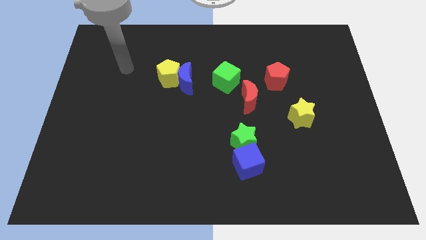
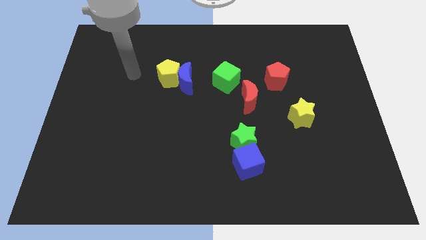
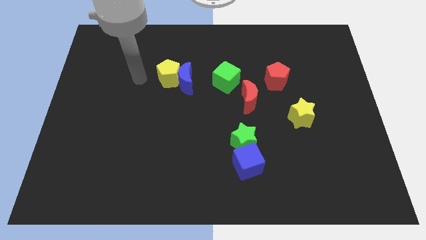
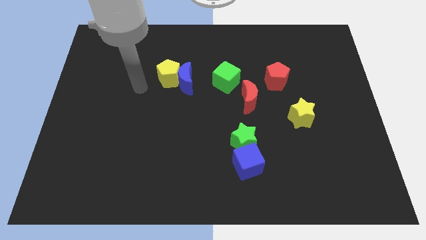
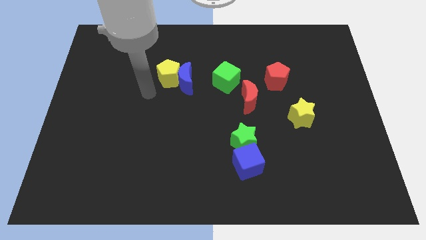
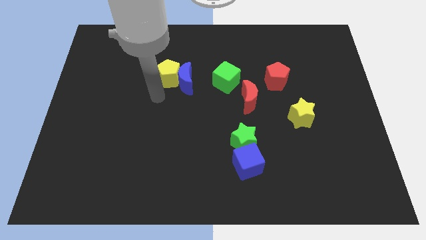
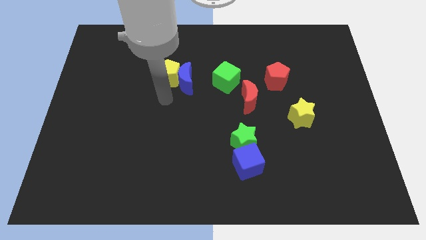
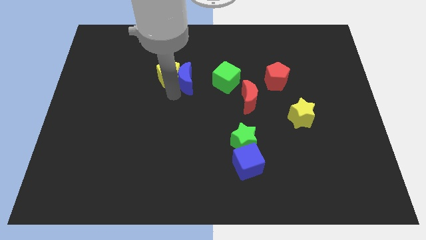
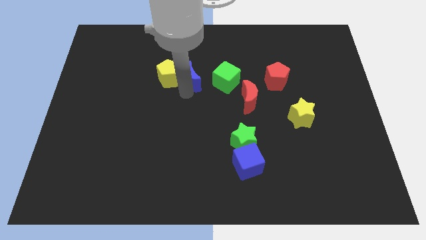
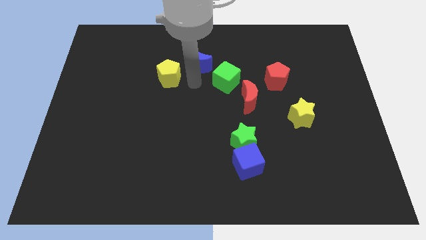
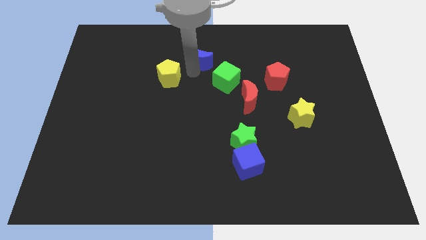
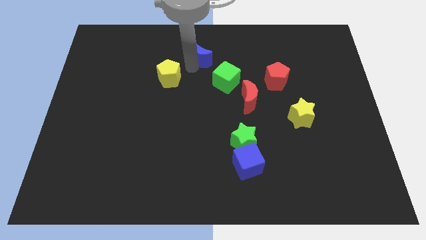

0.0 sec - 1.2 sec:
pull the yellow pentagon apart from the blue moon

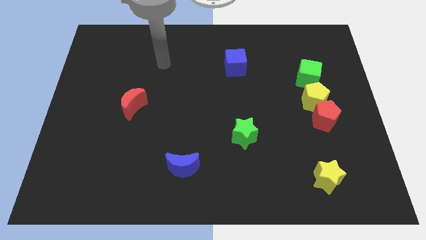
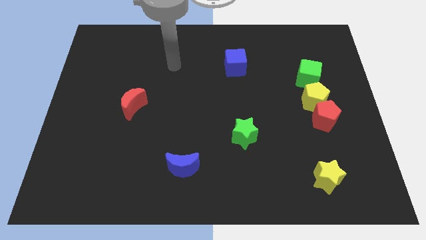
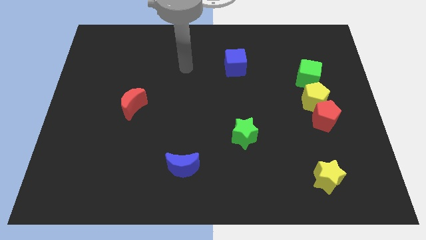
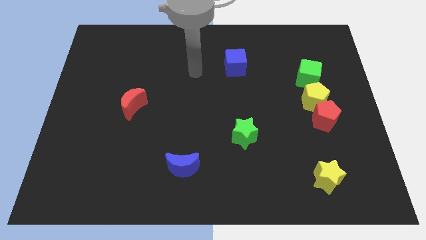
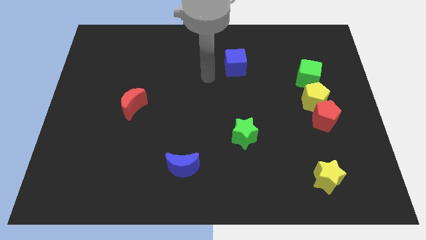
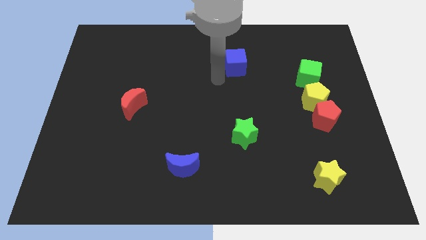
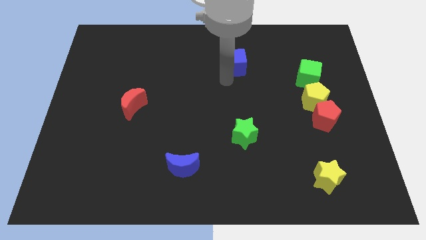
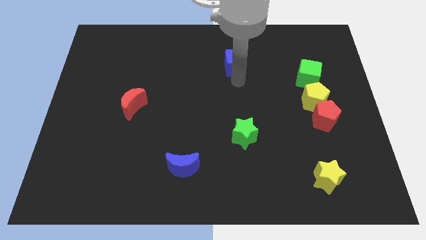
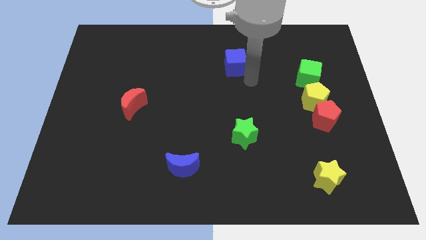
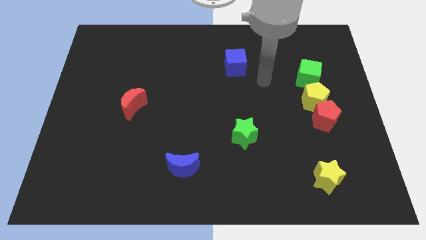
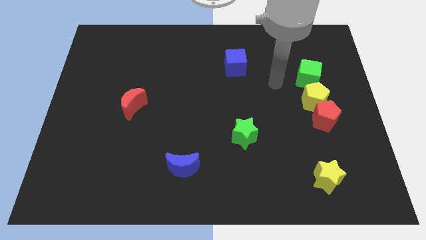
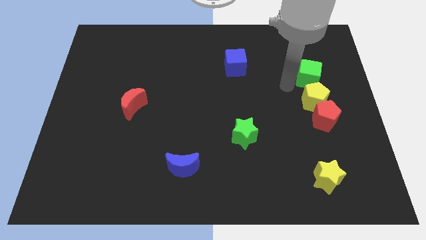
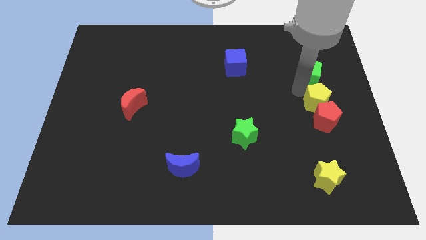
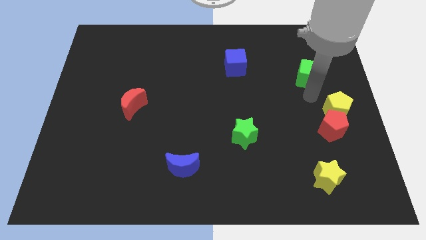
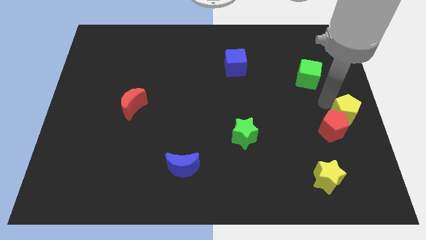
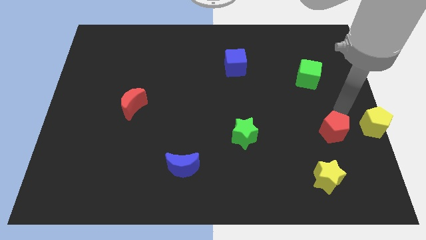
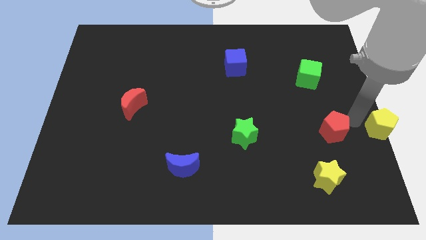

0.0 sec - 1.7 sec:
separate the red pentagon from the yellow pentagon

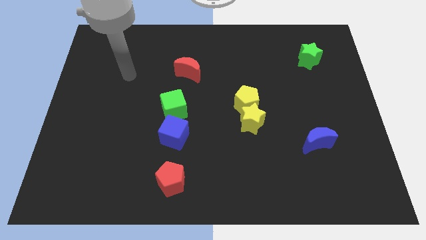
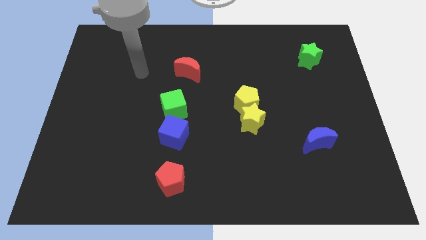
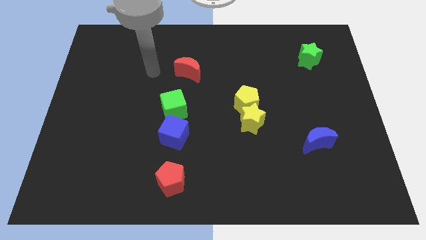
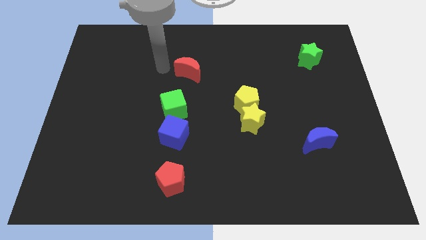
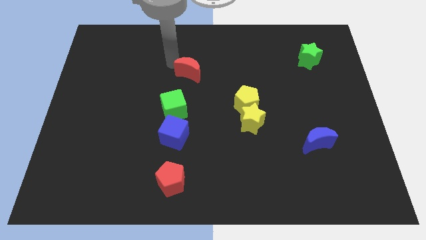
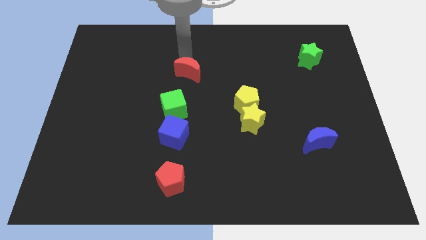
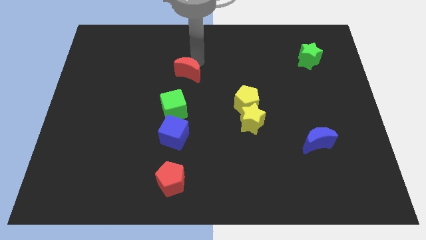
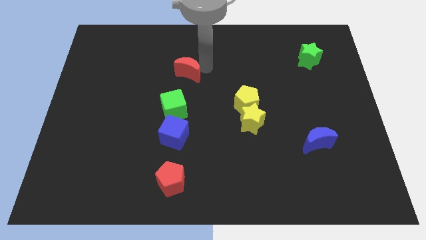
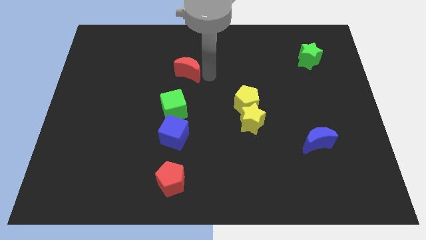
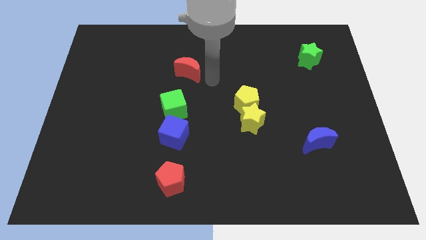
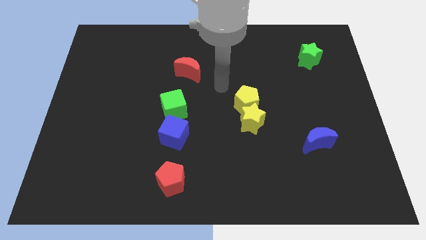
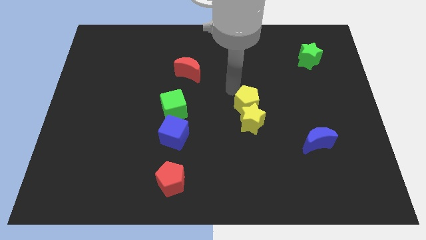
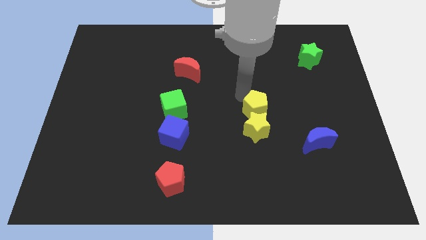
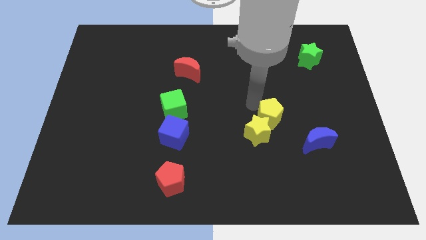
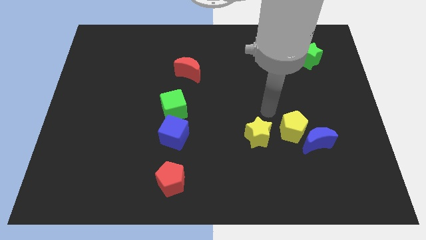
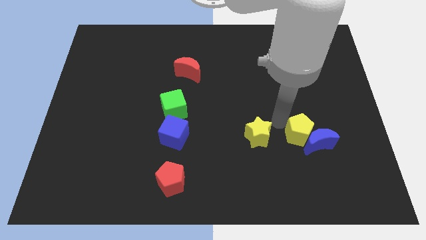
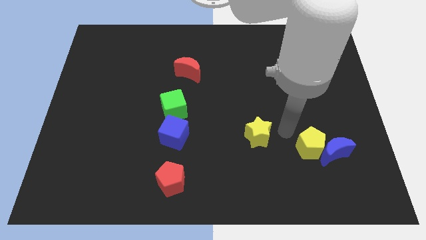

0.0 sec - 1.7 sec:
pull the yellow star apart from the yellow pentagon

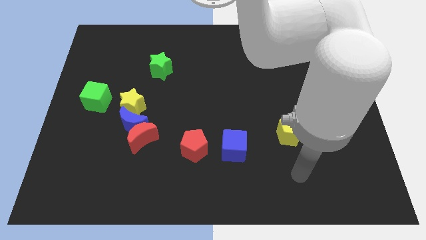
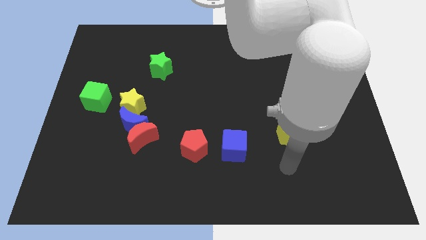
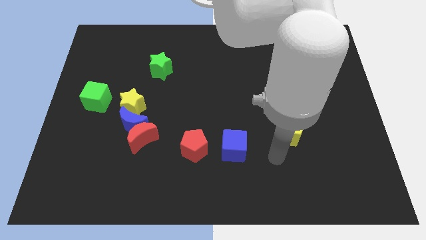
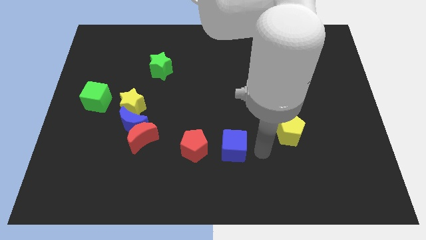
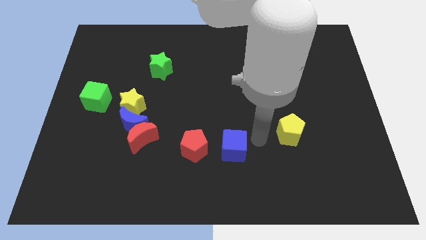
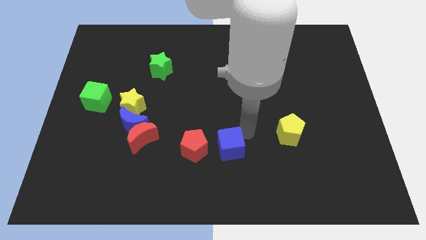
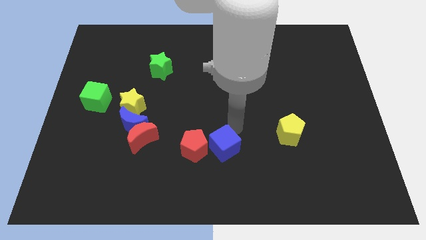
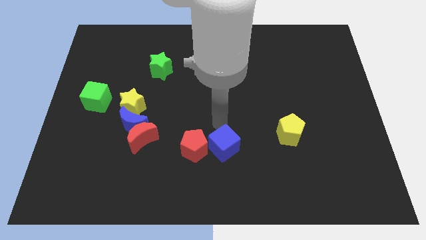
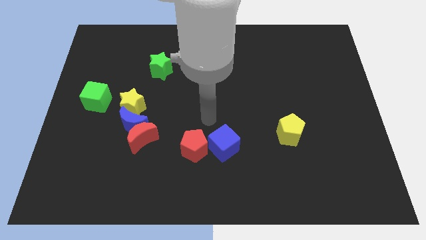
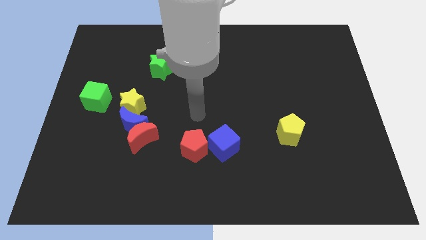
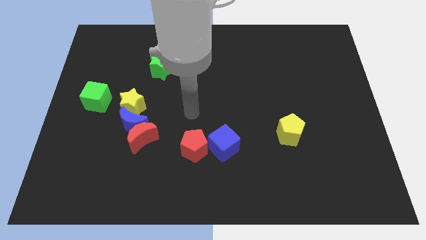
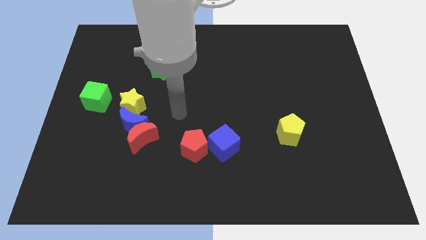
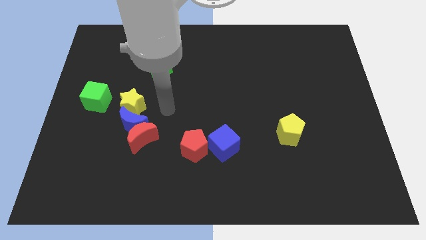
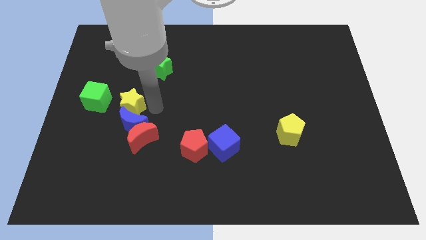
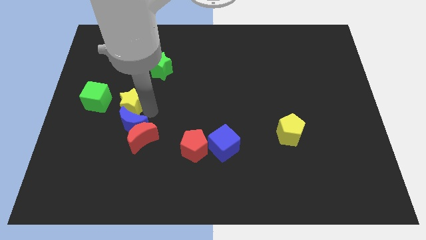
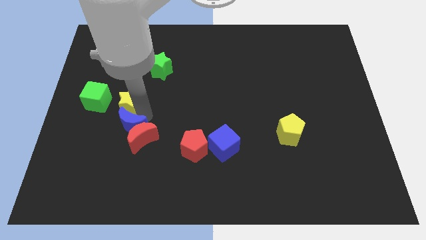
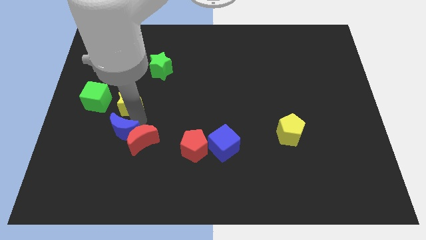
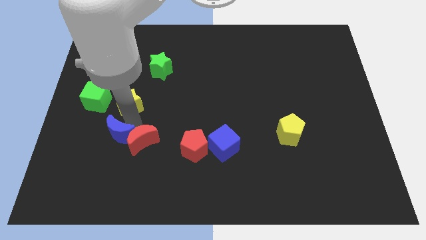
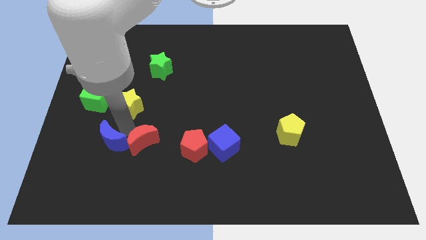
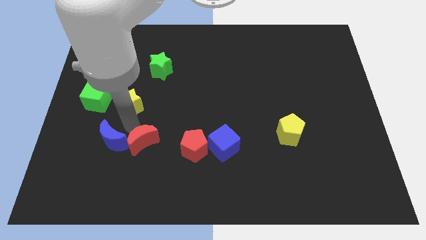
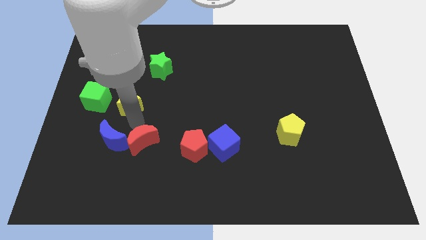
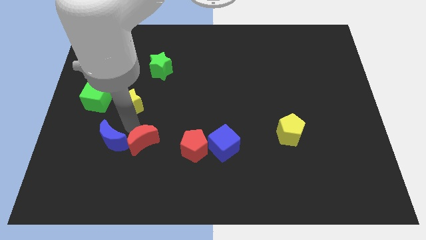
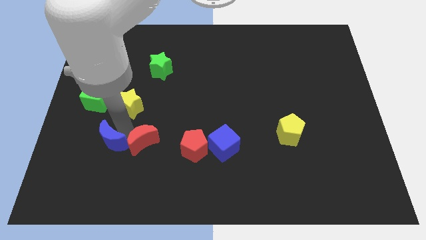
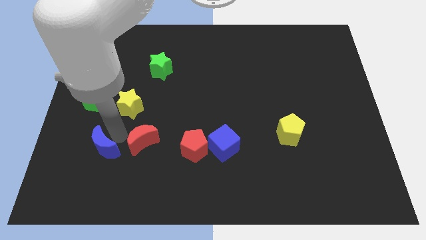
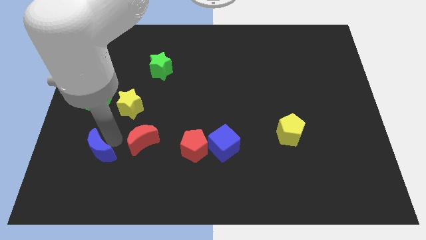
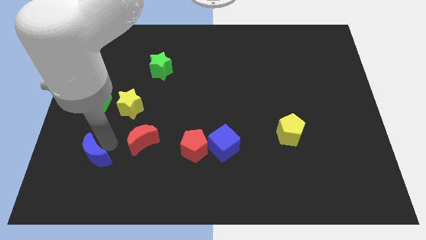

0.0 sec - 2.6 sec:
pull the blue moon apart from the red moon and yellow star

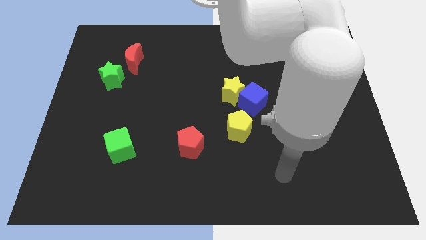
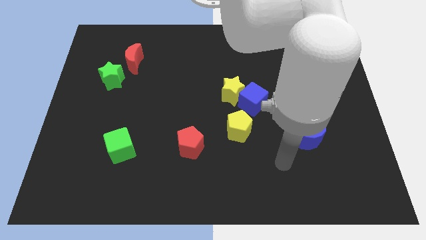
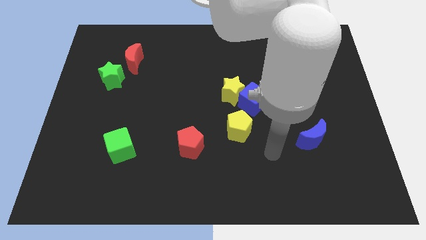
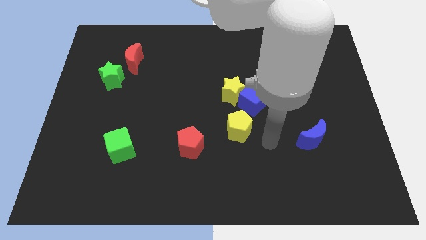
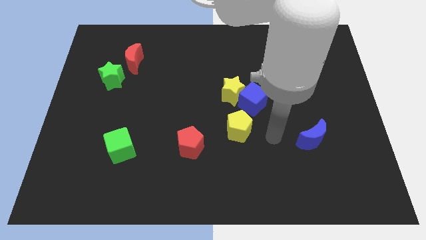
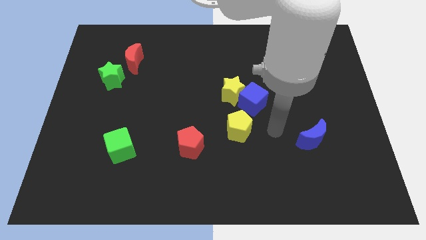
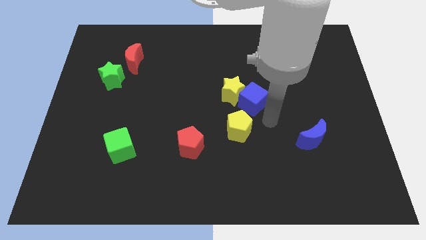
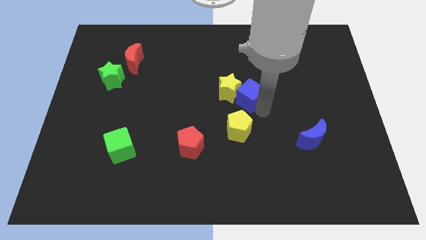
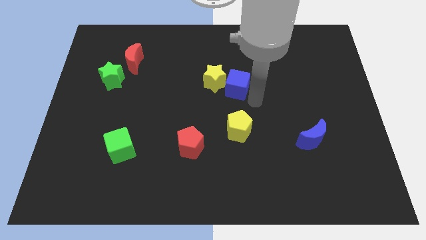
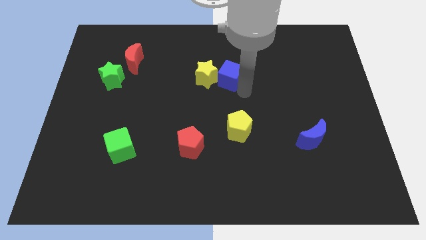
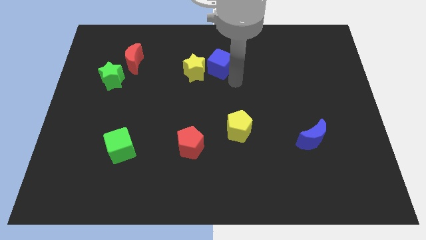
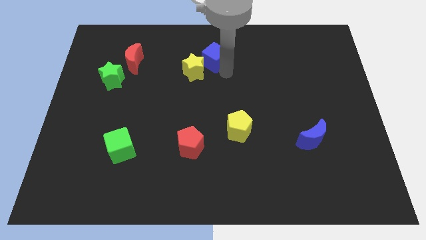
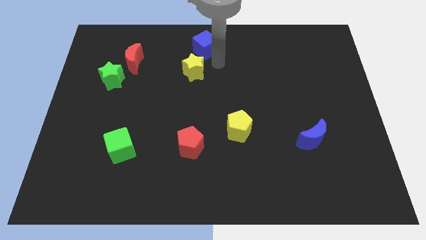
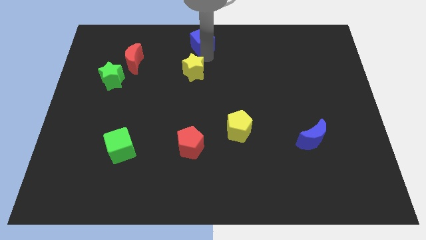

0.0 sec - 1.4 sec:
pull the yellow star apart from the blue cube

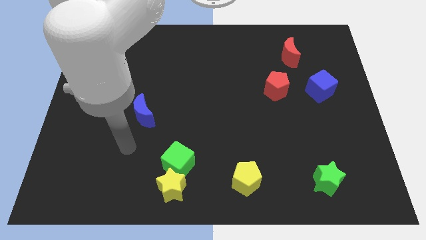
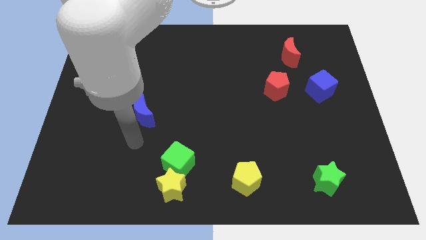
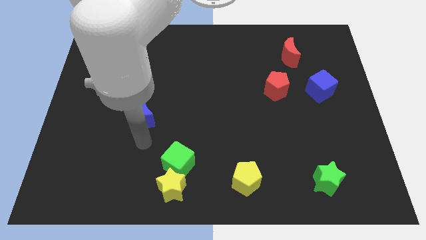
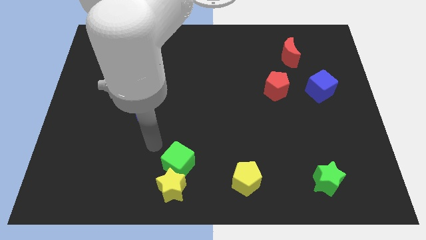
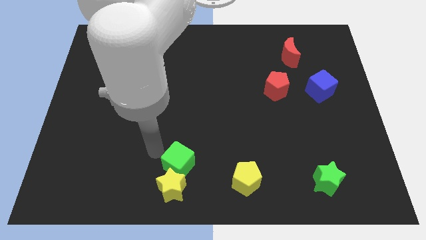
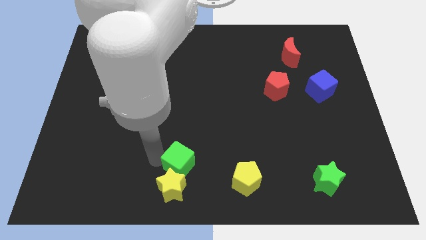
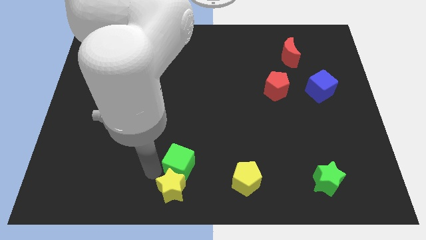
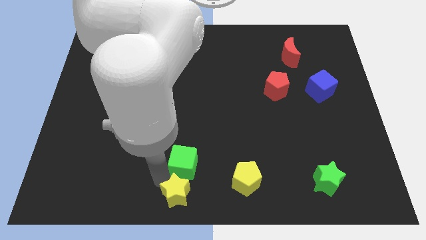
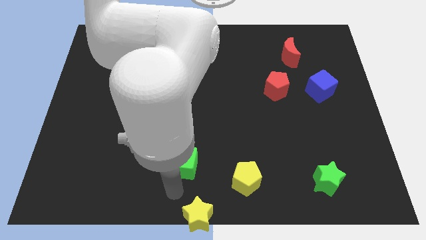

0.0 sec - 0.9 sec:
pull the green cube apart from the yellow star

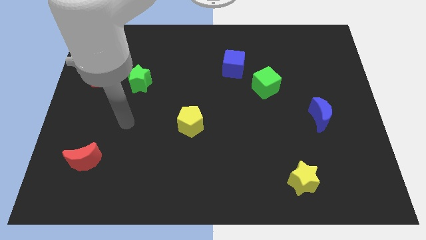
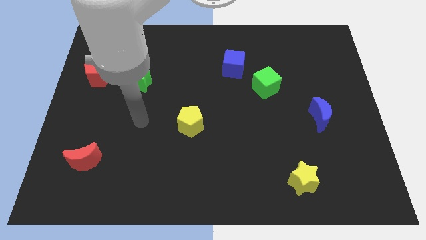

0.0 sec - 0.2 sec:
pull the blue cube apart from the green cube
